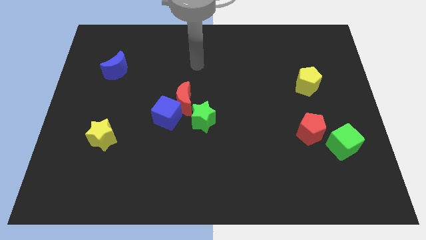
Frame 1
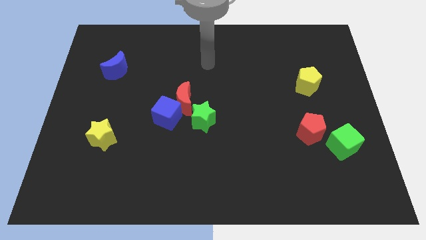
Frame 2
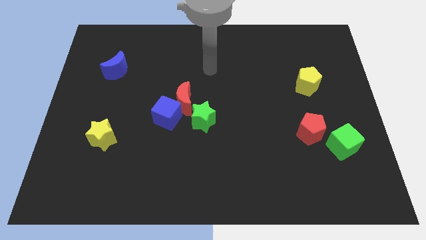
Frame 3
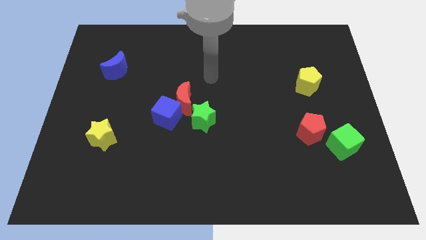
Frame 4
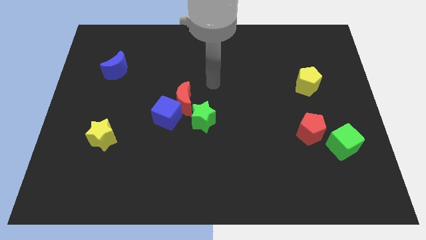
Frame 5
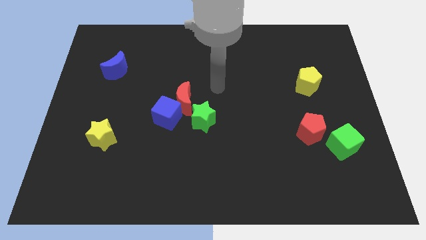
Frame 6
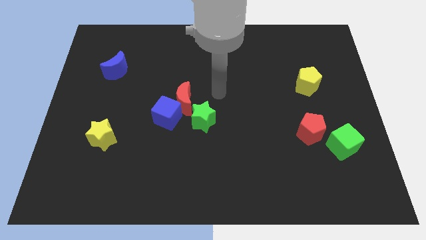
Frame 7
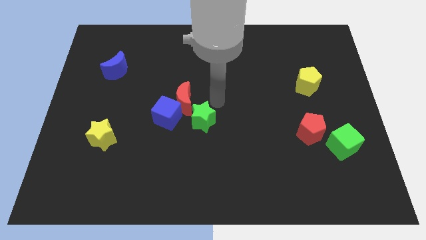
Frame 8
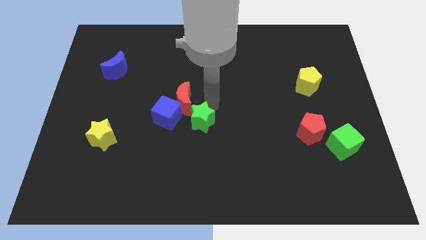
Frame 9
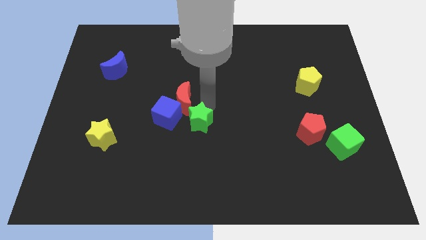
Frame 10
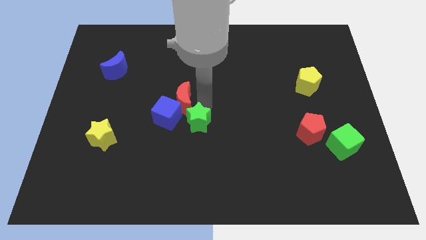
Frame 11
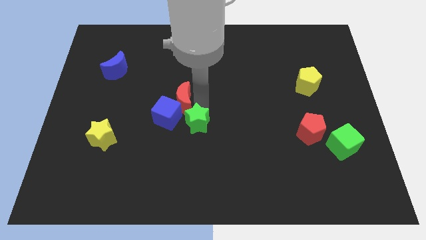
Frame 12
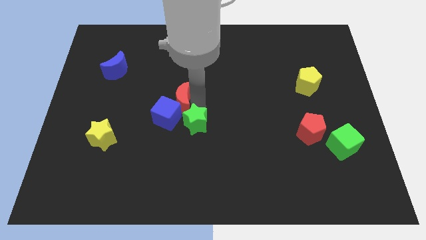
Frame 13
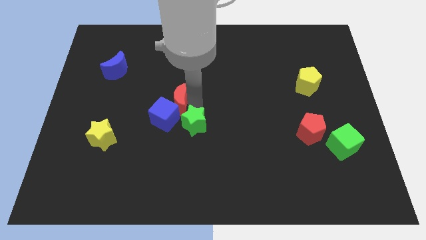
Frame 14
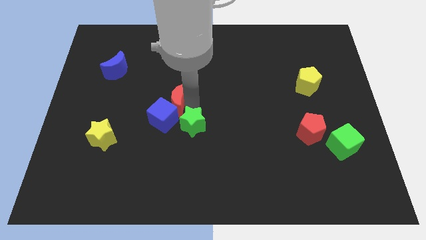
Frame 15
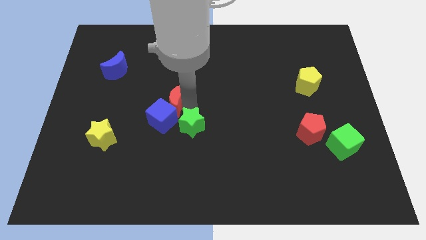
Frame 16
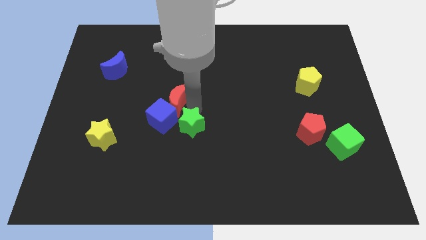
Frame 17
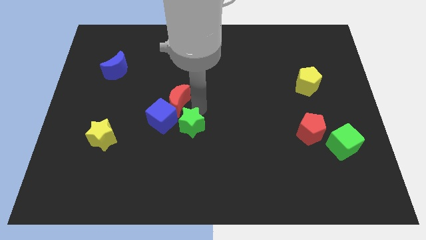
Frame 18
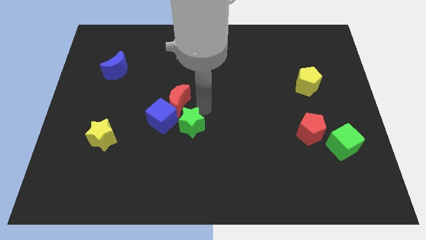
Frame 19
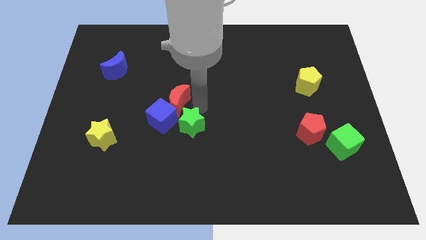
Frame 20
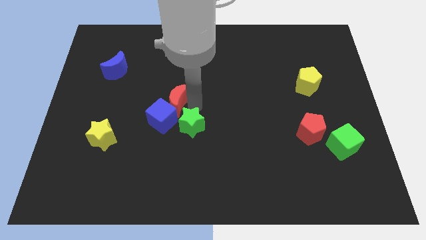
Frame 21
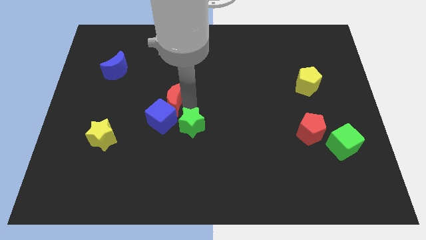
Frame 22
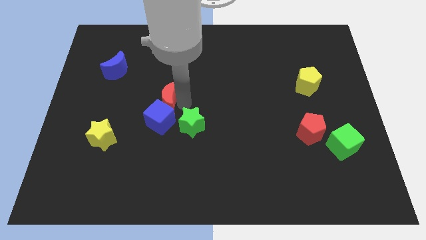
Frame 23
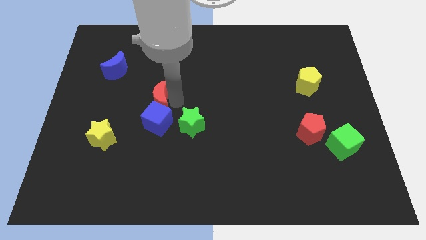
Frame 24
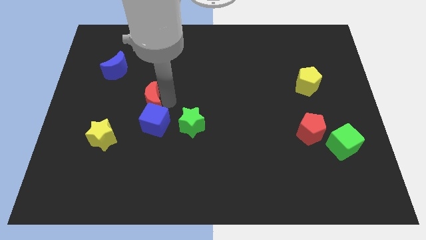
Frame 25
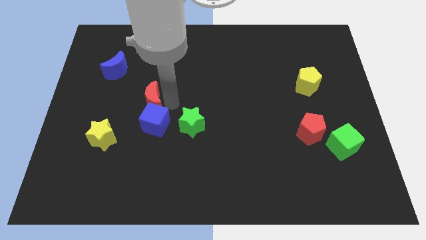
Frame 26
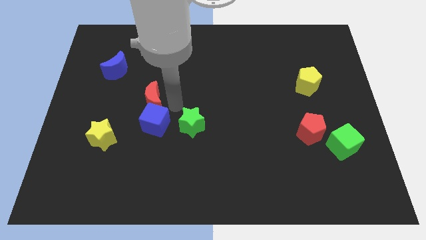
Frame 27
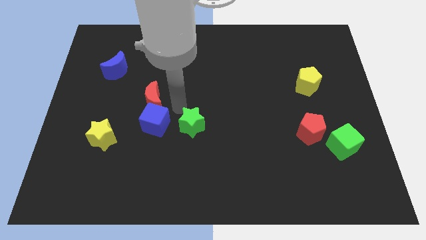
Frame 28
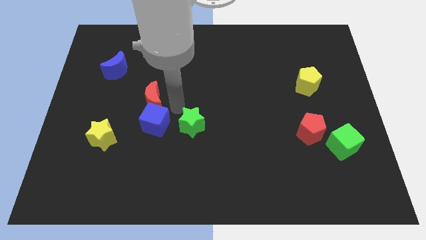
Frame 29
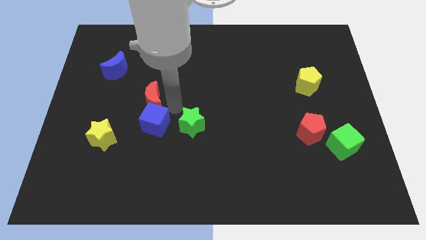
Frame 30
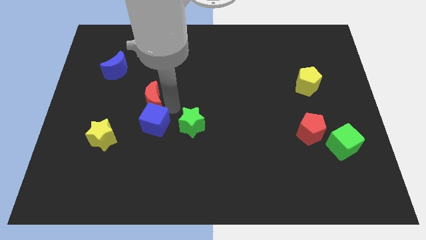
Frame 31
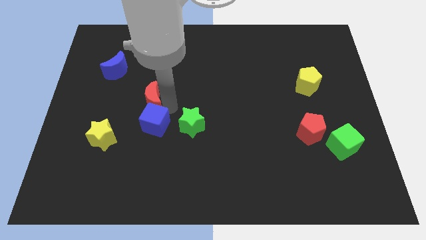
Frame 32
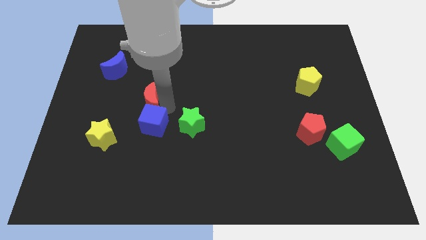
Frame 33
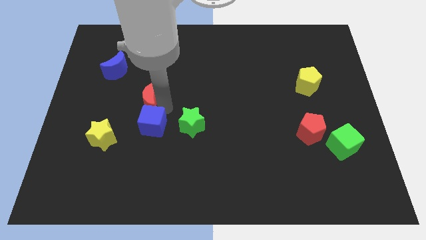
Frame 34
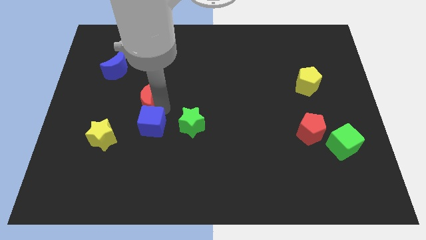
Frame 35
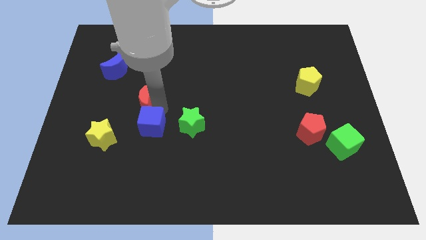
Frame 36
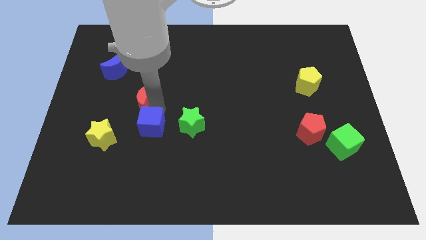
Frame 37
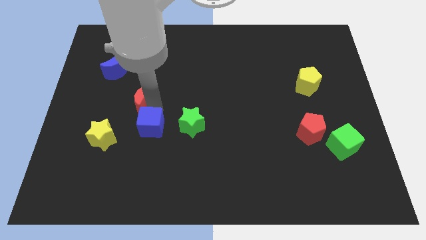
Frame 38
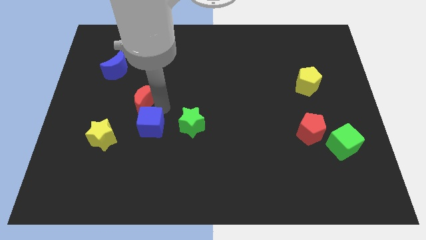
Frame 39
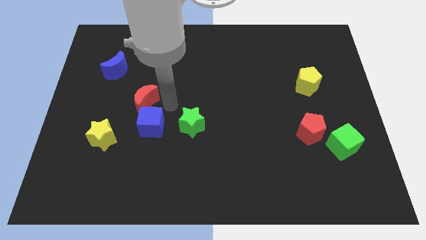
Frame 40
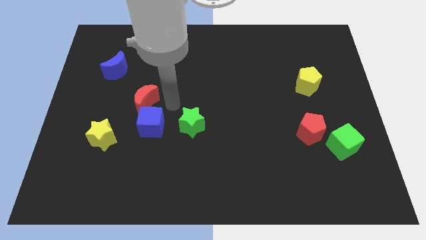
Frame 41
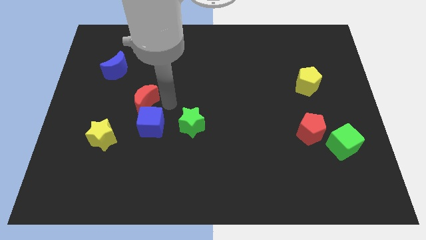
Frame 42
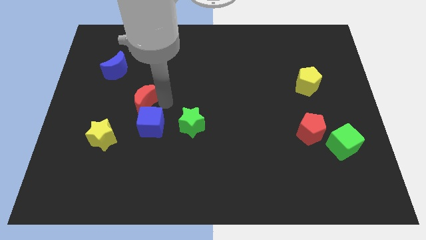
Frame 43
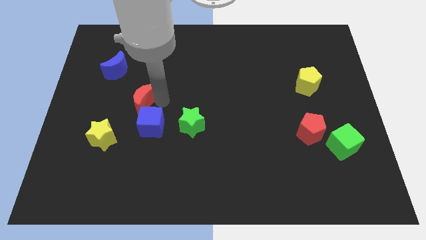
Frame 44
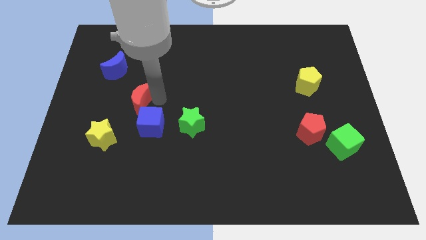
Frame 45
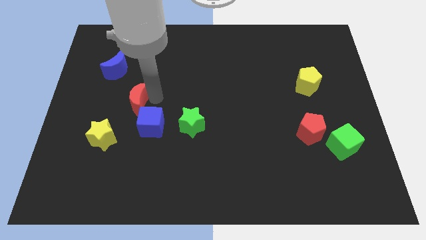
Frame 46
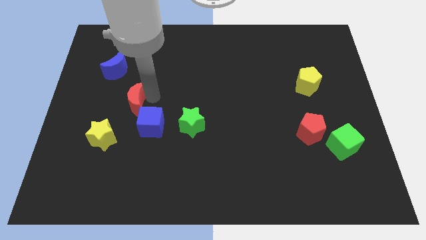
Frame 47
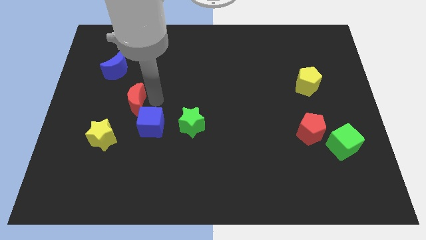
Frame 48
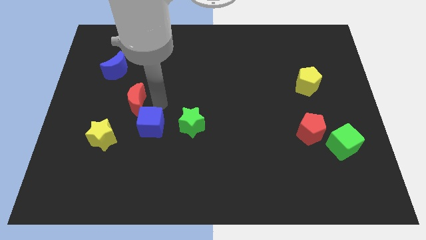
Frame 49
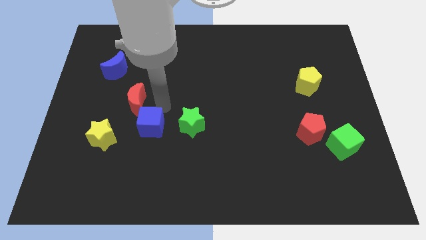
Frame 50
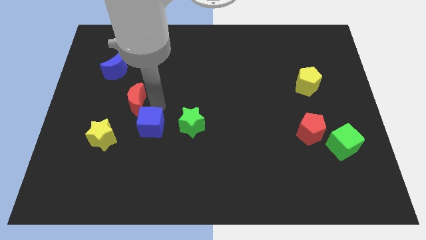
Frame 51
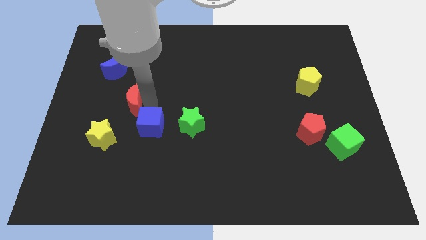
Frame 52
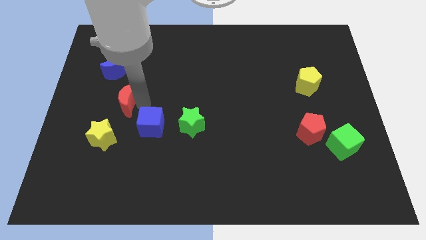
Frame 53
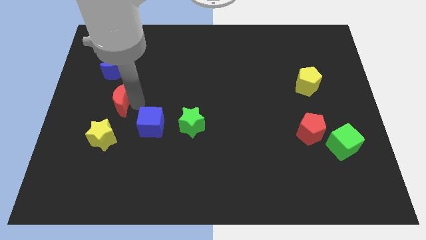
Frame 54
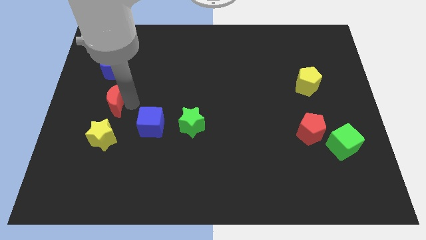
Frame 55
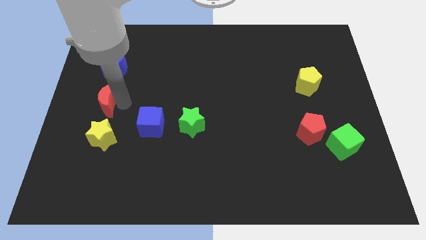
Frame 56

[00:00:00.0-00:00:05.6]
put the red moon to the left side of the board
